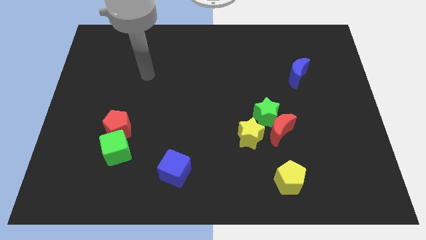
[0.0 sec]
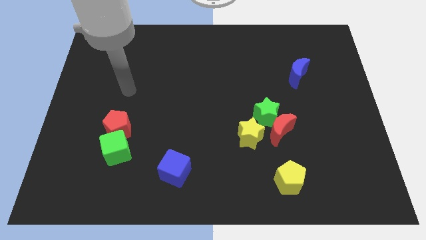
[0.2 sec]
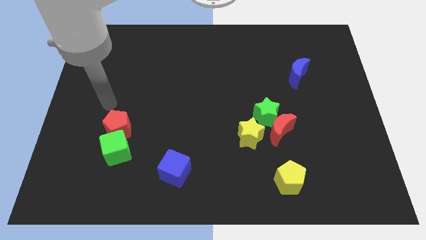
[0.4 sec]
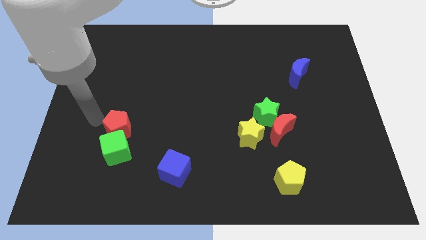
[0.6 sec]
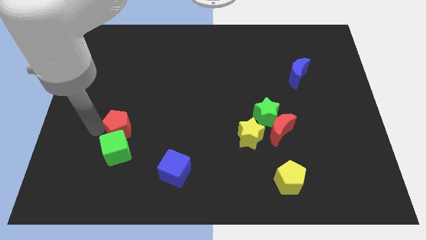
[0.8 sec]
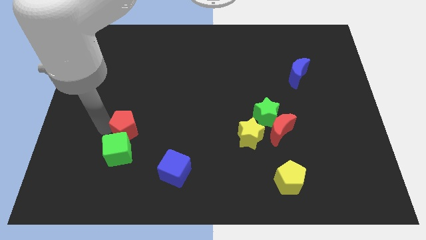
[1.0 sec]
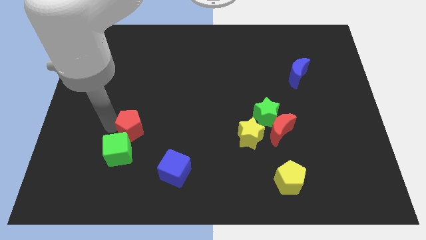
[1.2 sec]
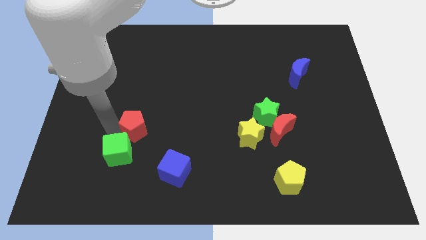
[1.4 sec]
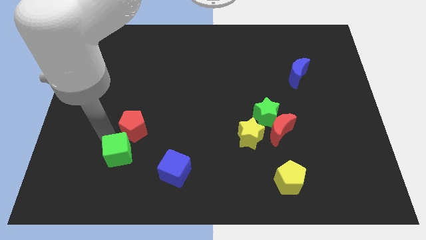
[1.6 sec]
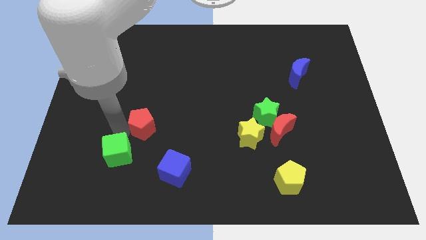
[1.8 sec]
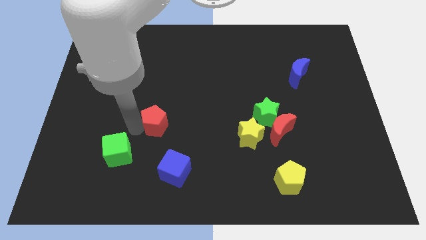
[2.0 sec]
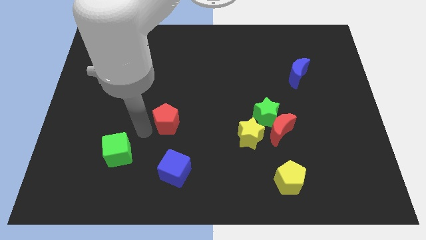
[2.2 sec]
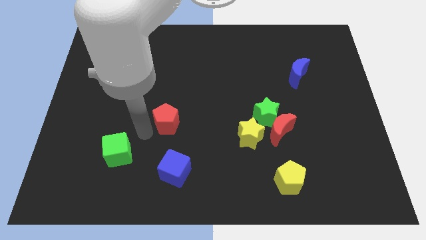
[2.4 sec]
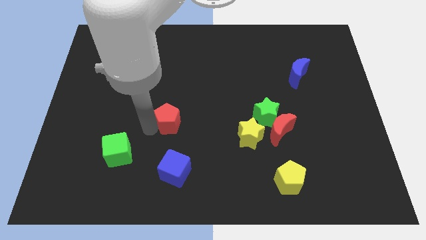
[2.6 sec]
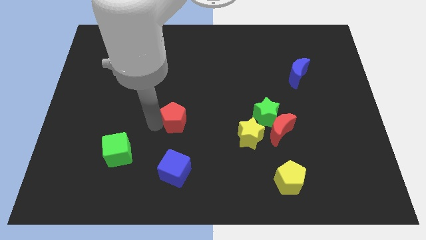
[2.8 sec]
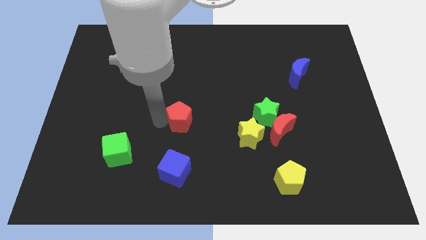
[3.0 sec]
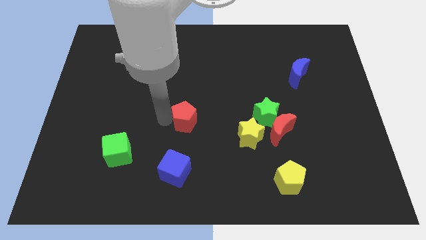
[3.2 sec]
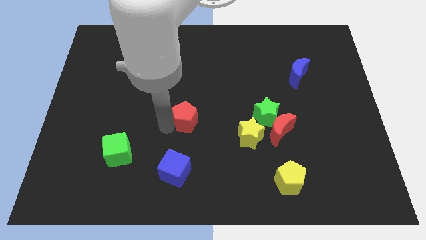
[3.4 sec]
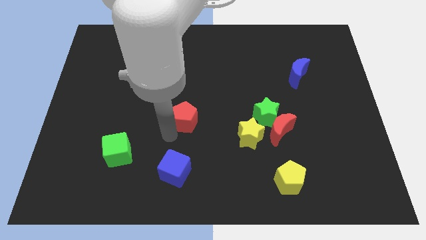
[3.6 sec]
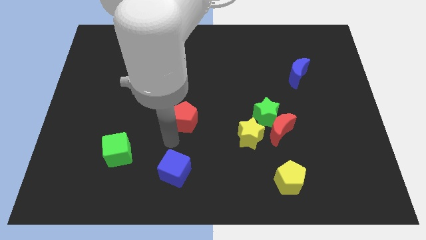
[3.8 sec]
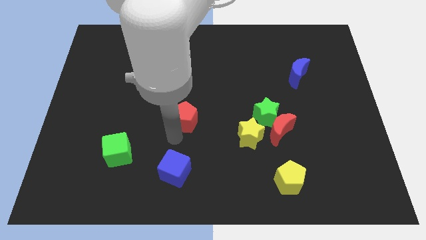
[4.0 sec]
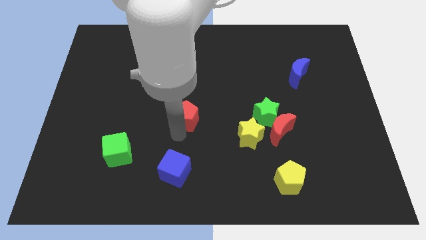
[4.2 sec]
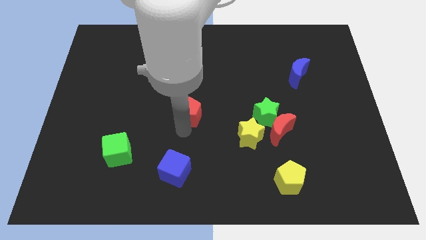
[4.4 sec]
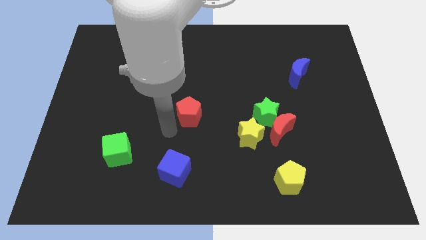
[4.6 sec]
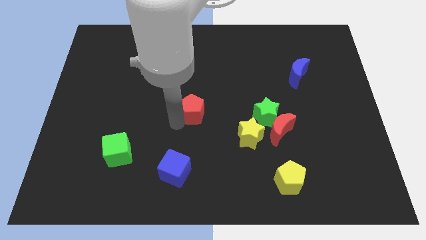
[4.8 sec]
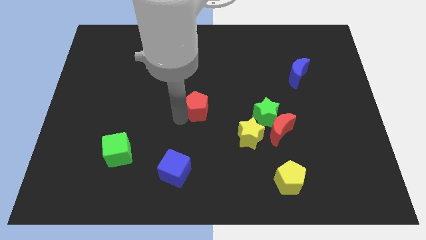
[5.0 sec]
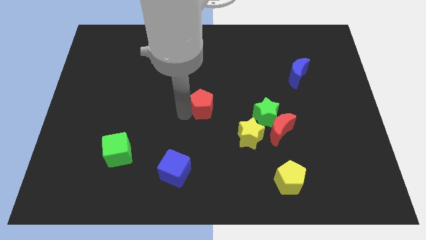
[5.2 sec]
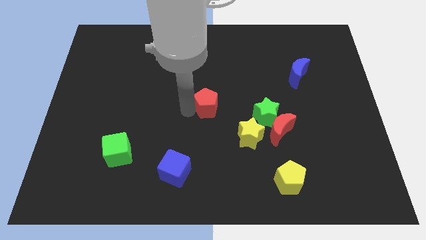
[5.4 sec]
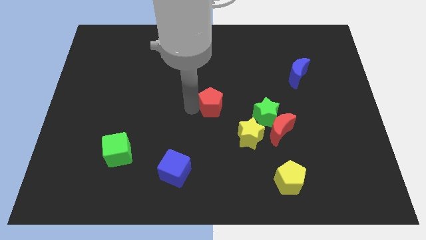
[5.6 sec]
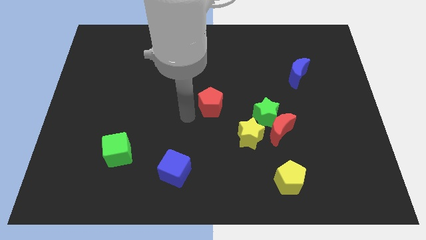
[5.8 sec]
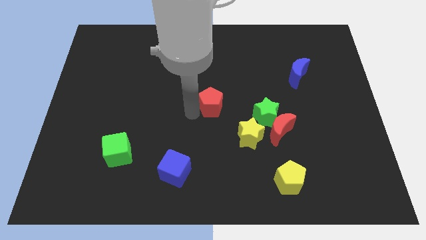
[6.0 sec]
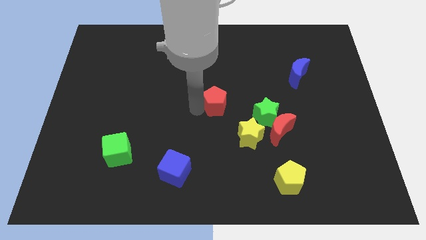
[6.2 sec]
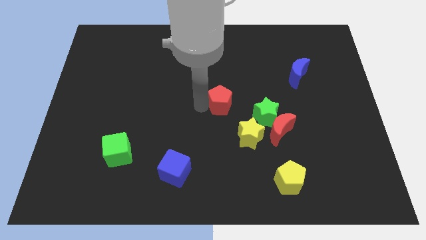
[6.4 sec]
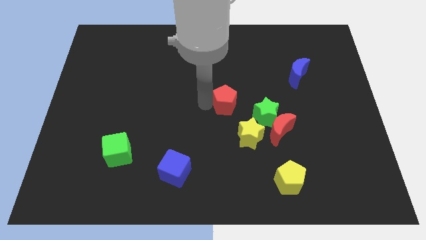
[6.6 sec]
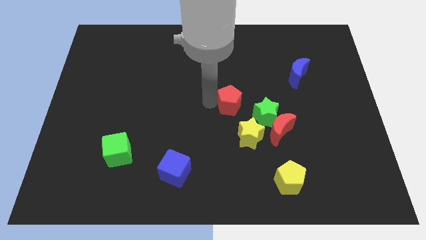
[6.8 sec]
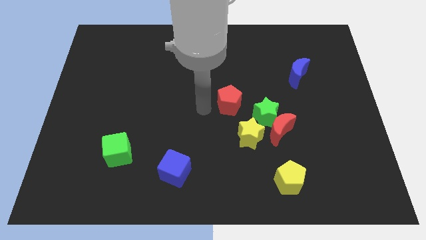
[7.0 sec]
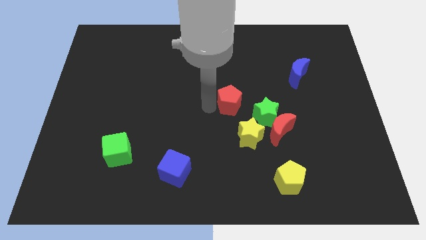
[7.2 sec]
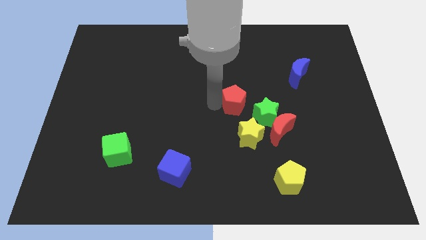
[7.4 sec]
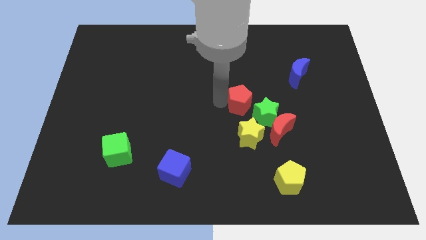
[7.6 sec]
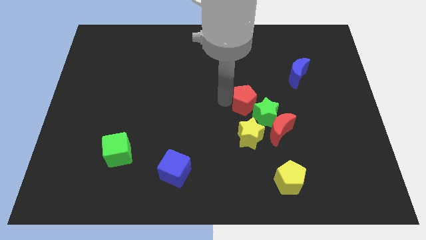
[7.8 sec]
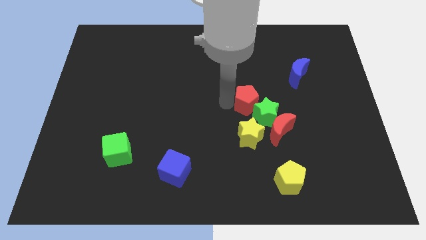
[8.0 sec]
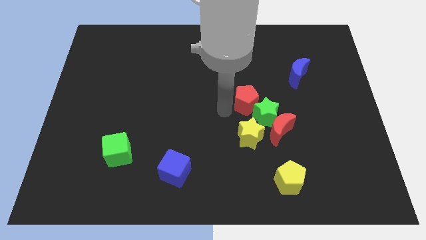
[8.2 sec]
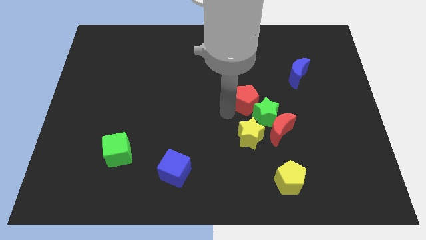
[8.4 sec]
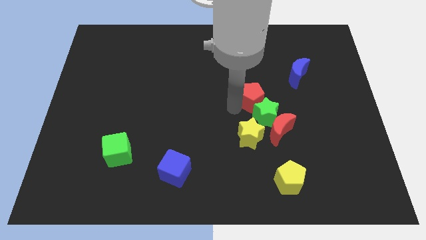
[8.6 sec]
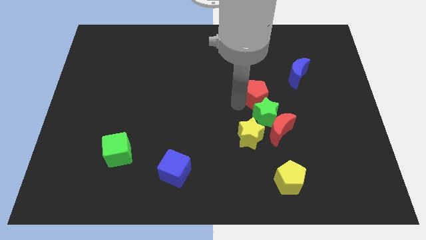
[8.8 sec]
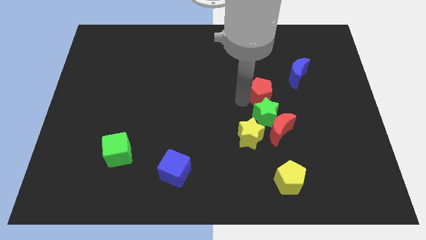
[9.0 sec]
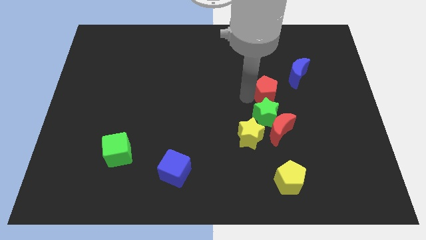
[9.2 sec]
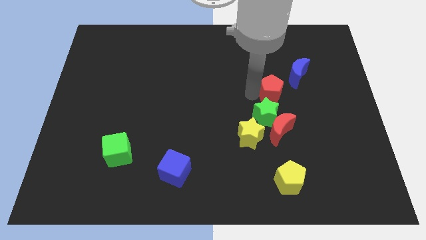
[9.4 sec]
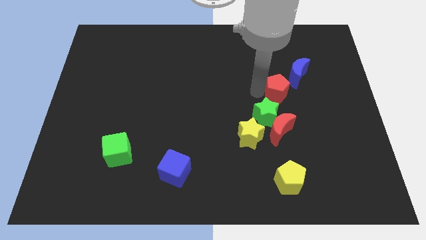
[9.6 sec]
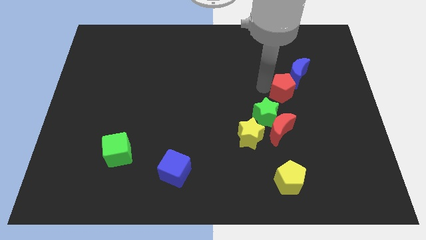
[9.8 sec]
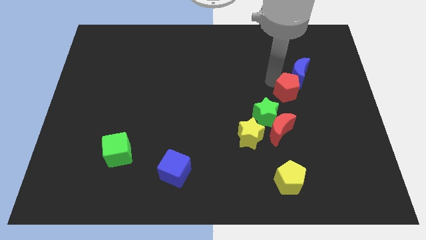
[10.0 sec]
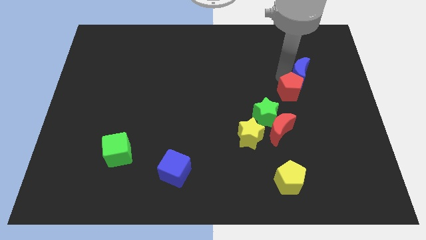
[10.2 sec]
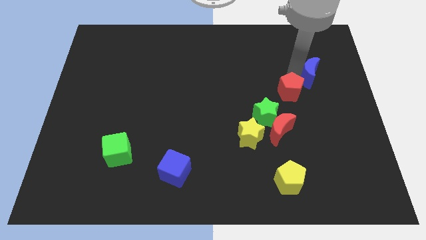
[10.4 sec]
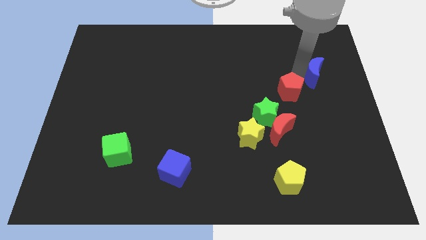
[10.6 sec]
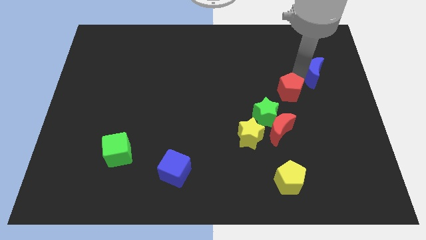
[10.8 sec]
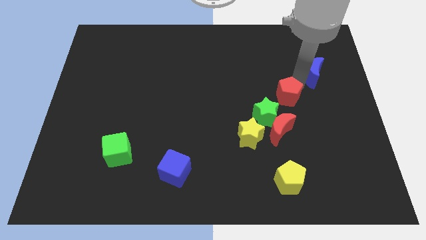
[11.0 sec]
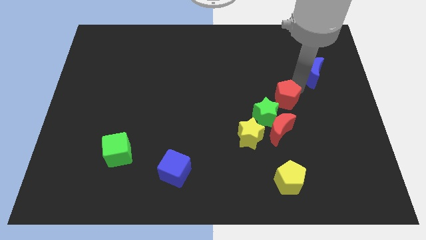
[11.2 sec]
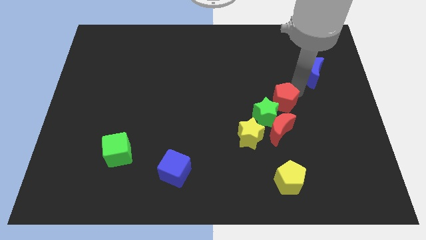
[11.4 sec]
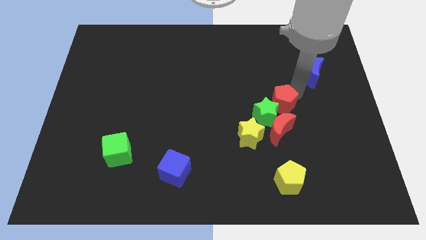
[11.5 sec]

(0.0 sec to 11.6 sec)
move the red pentagon to the top right of the yellow star

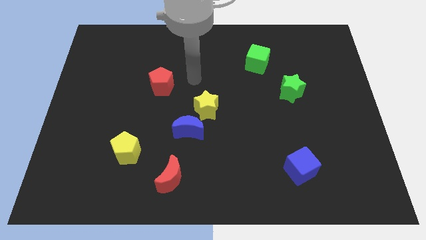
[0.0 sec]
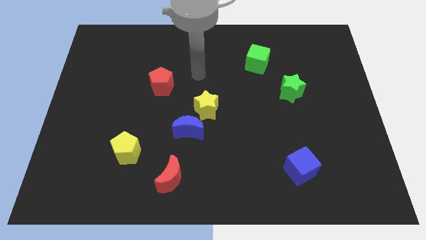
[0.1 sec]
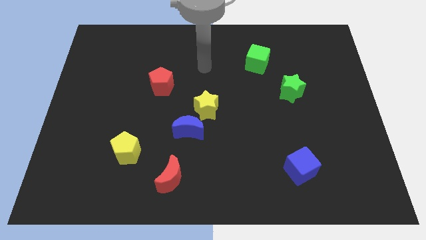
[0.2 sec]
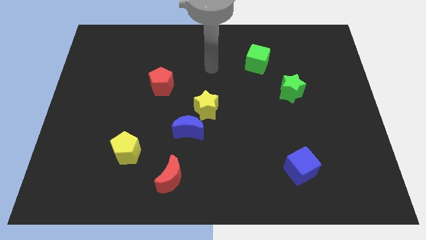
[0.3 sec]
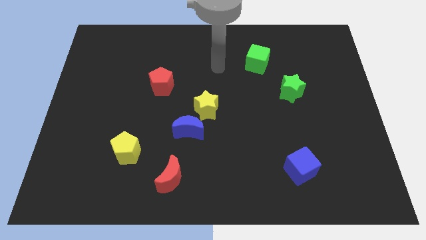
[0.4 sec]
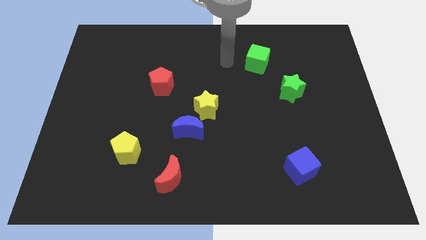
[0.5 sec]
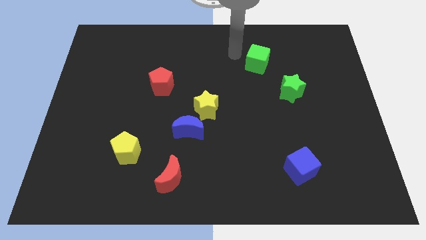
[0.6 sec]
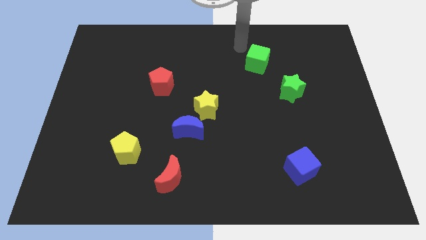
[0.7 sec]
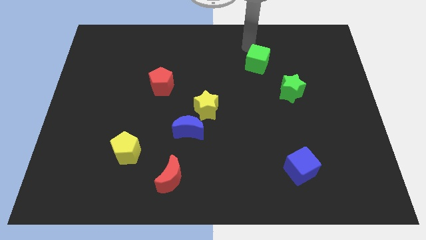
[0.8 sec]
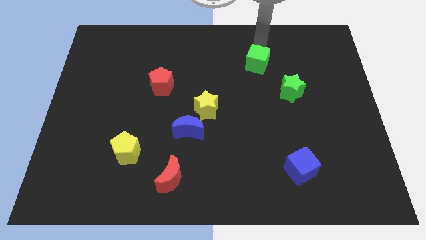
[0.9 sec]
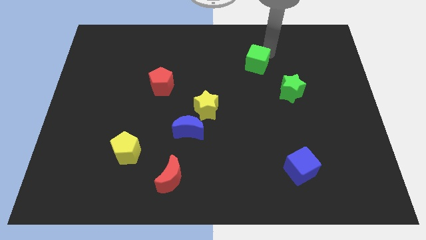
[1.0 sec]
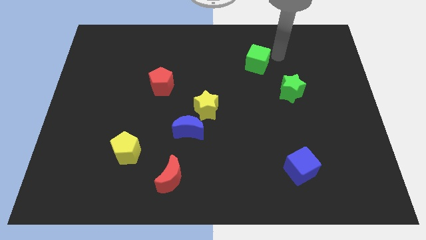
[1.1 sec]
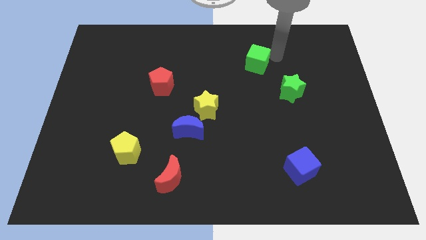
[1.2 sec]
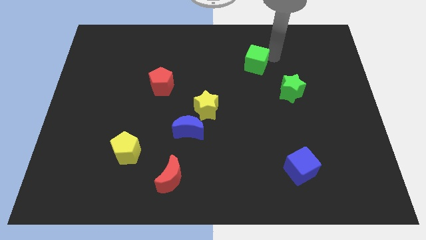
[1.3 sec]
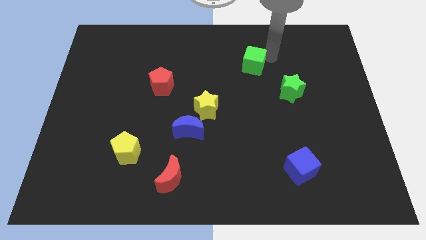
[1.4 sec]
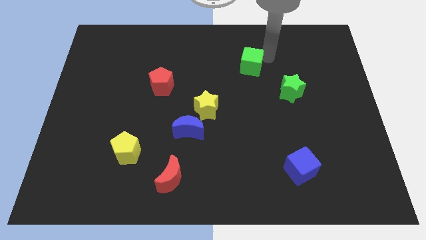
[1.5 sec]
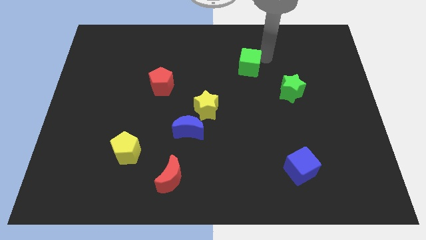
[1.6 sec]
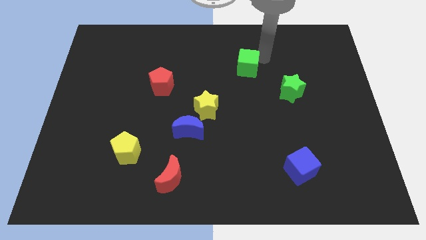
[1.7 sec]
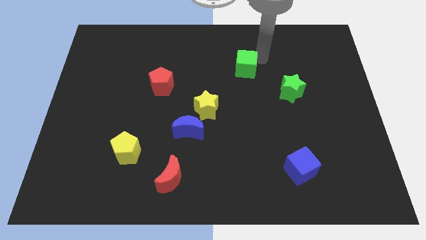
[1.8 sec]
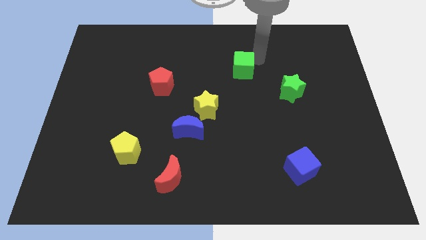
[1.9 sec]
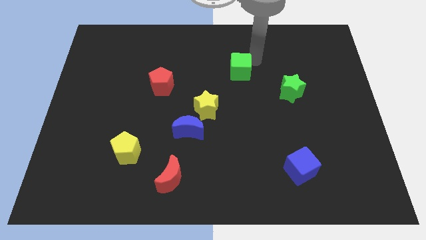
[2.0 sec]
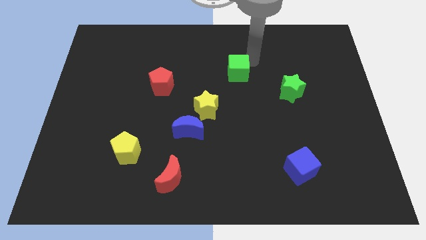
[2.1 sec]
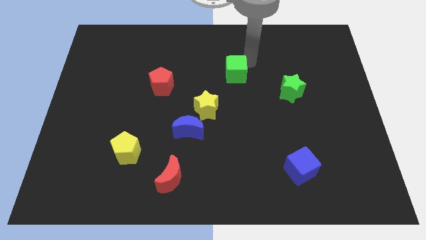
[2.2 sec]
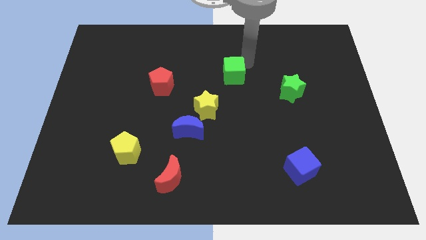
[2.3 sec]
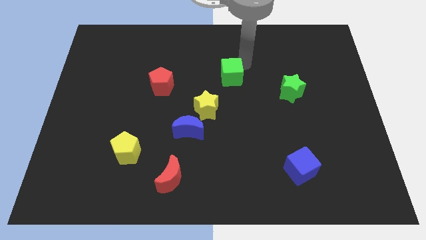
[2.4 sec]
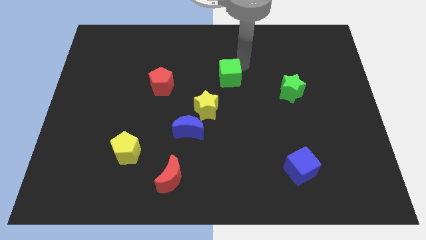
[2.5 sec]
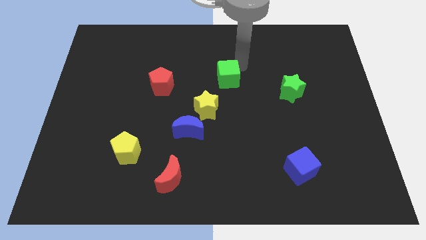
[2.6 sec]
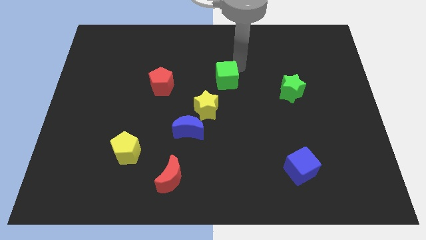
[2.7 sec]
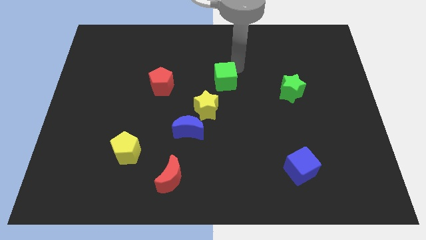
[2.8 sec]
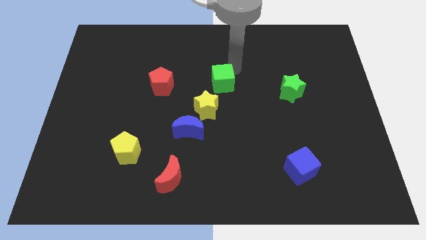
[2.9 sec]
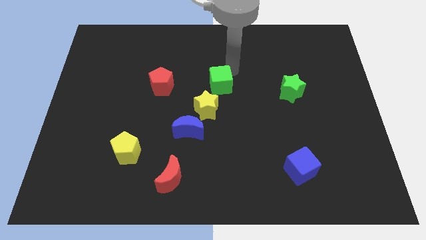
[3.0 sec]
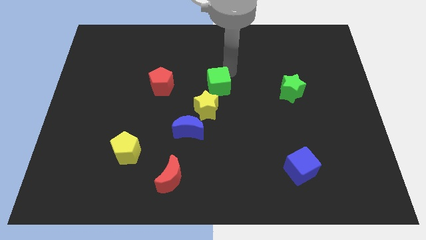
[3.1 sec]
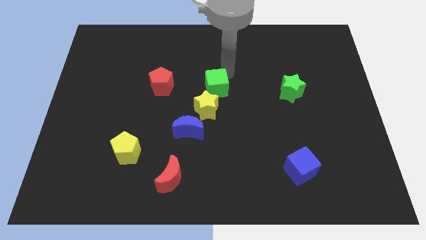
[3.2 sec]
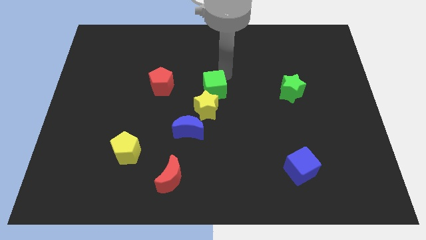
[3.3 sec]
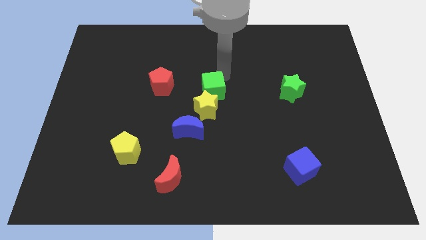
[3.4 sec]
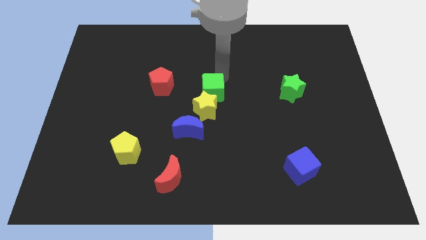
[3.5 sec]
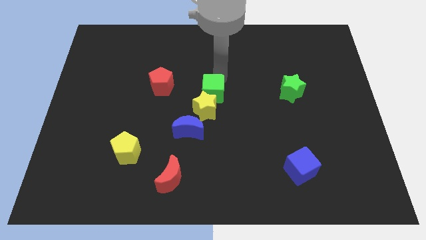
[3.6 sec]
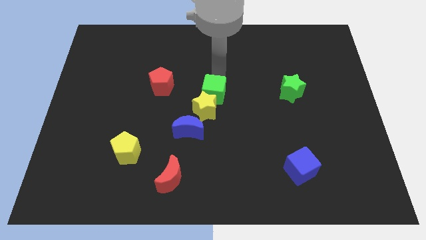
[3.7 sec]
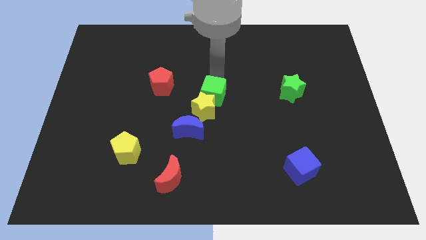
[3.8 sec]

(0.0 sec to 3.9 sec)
slide the green cube to the top right side of the blue moon
